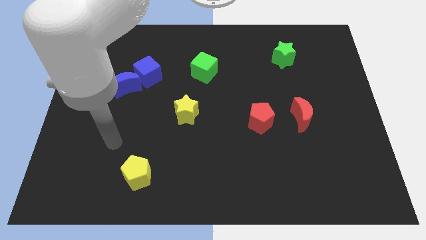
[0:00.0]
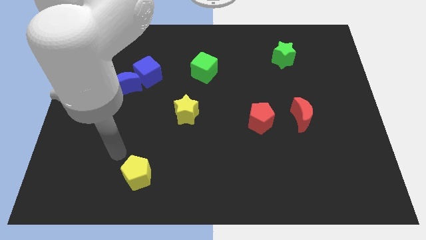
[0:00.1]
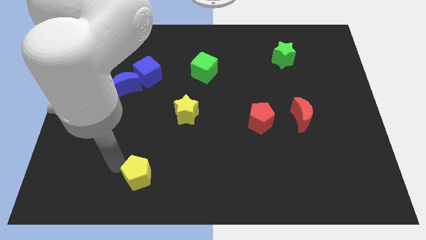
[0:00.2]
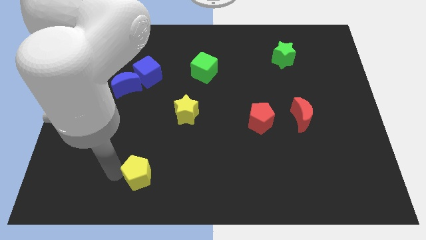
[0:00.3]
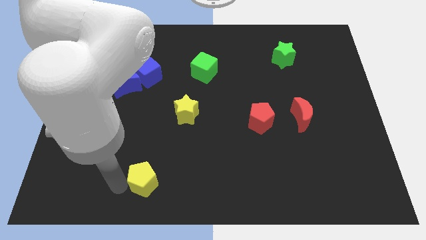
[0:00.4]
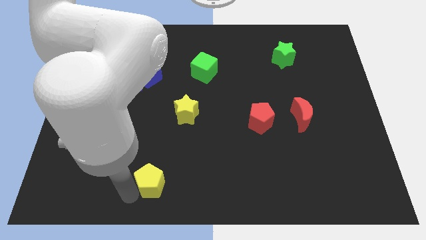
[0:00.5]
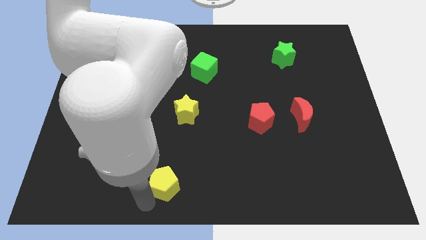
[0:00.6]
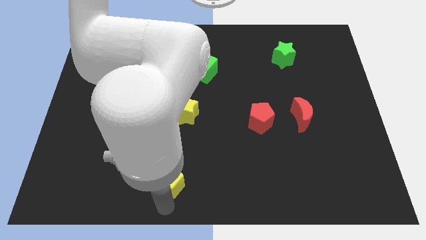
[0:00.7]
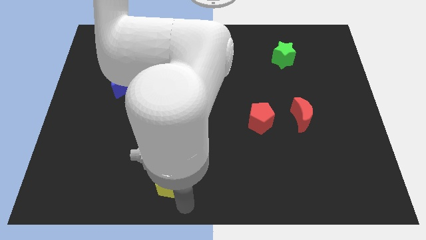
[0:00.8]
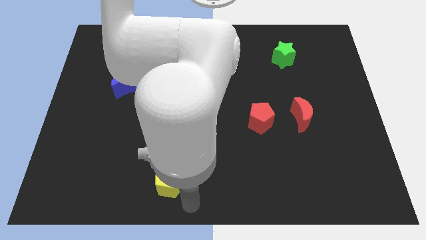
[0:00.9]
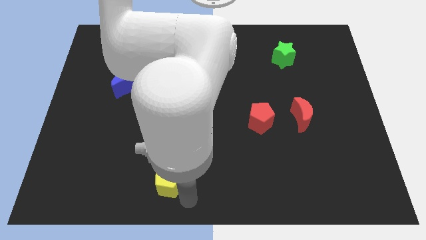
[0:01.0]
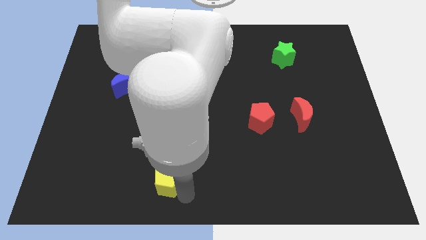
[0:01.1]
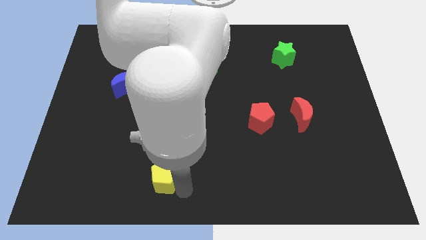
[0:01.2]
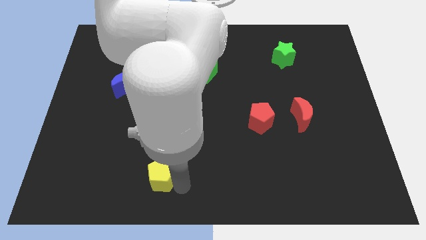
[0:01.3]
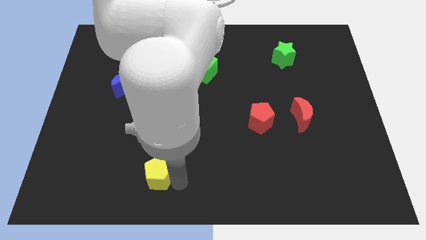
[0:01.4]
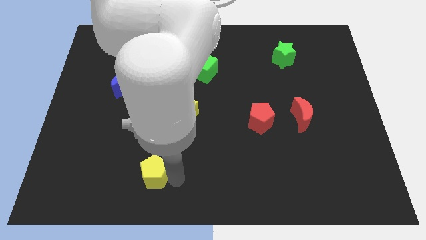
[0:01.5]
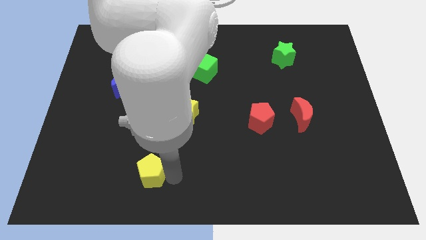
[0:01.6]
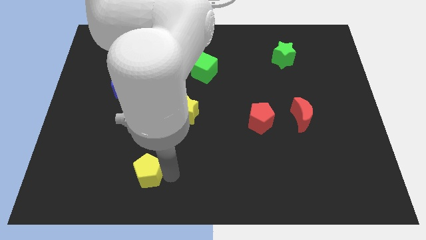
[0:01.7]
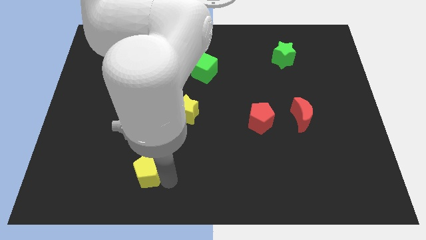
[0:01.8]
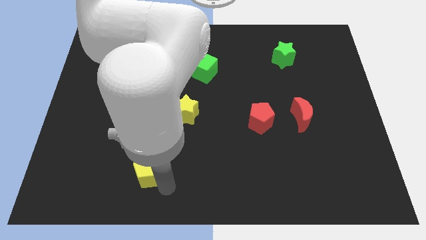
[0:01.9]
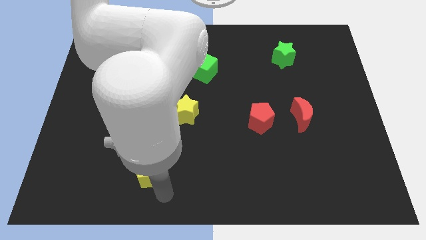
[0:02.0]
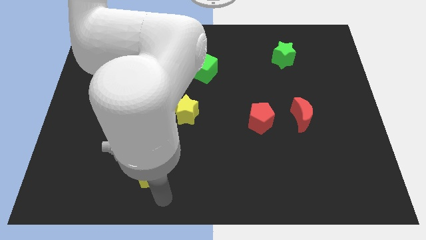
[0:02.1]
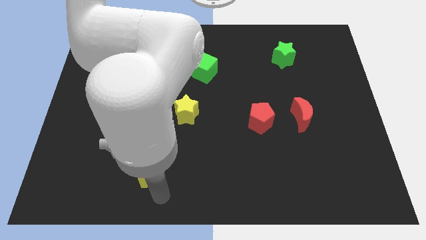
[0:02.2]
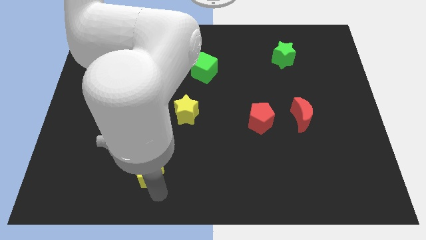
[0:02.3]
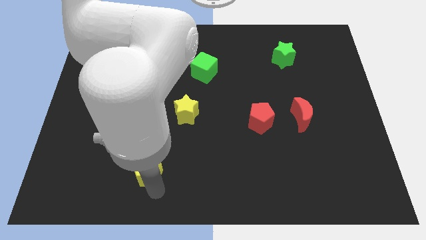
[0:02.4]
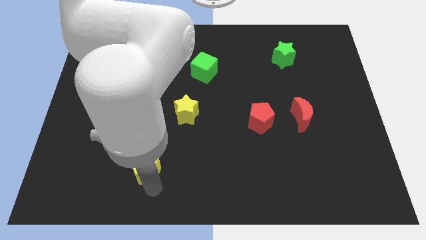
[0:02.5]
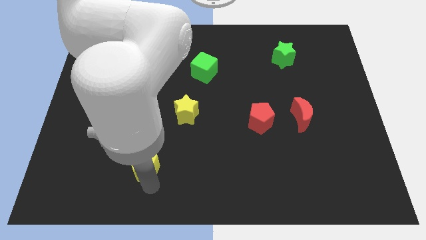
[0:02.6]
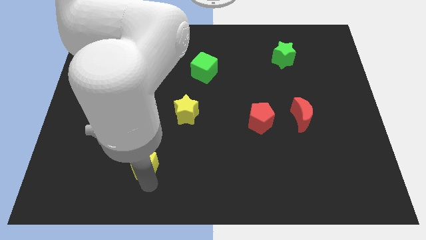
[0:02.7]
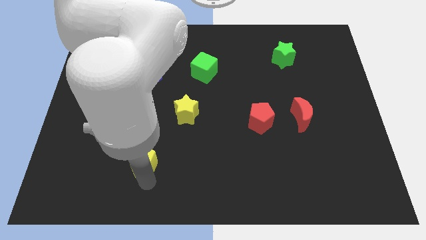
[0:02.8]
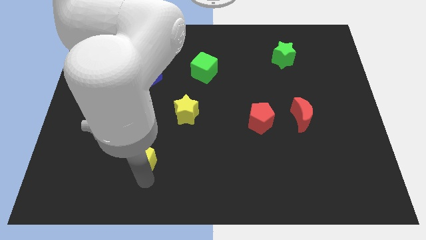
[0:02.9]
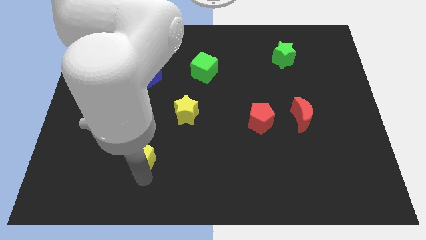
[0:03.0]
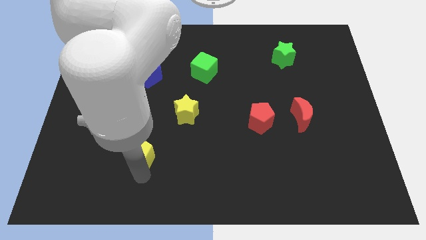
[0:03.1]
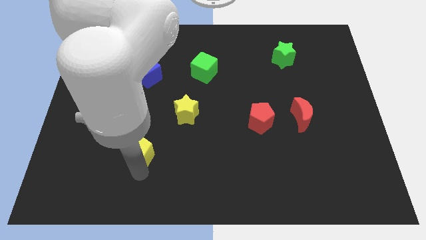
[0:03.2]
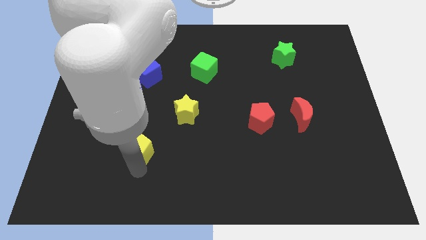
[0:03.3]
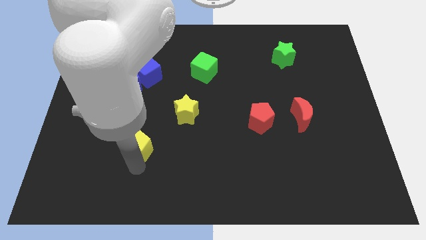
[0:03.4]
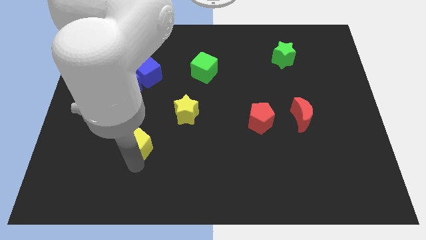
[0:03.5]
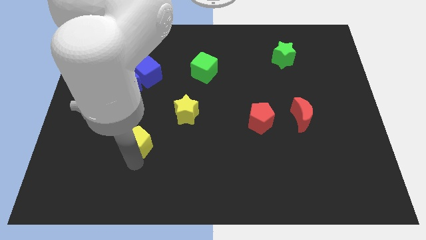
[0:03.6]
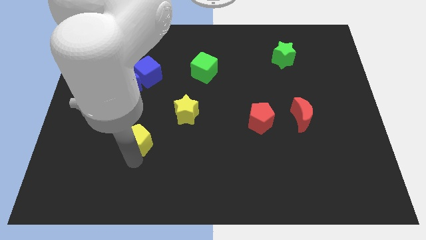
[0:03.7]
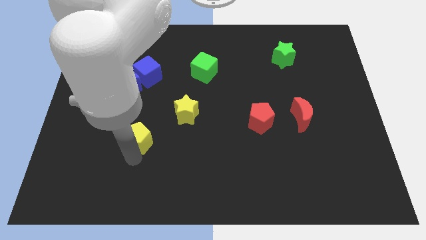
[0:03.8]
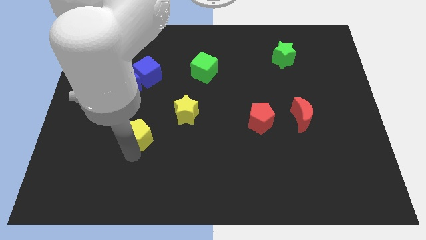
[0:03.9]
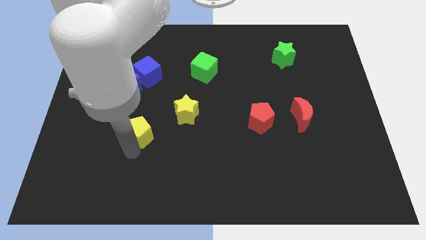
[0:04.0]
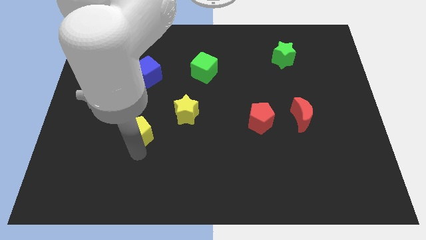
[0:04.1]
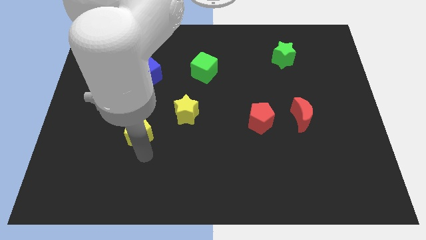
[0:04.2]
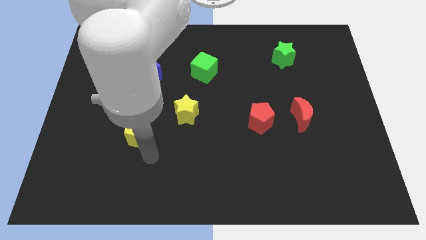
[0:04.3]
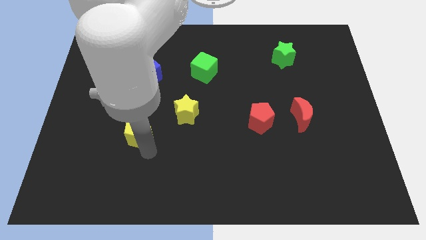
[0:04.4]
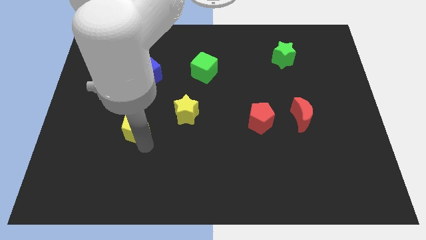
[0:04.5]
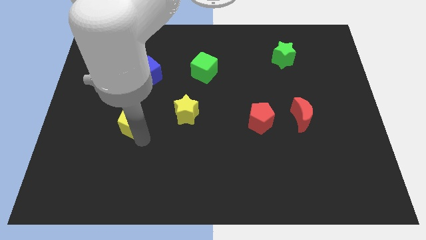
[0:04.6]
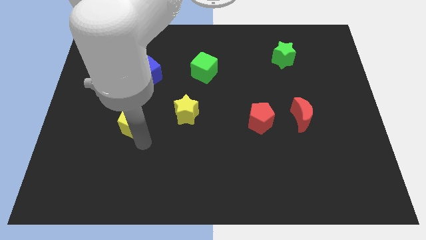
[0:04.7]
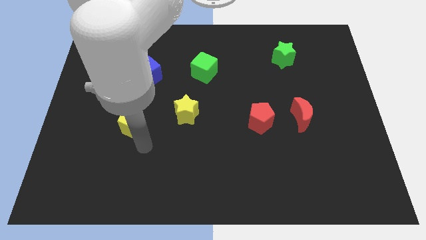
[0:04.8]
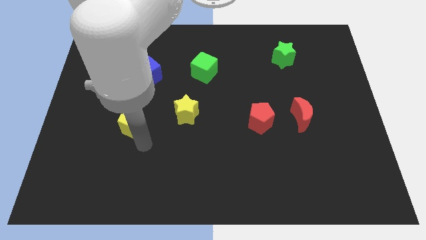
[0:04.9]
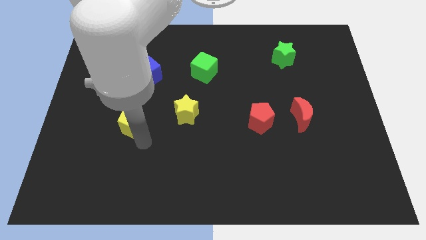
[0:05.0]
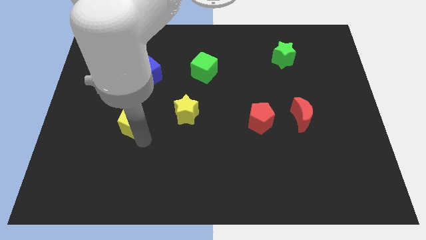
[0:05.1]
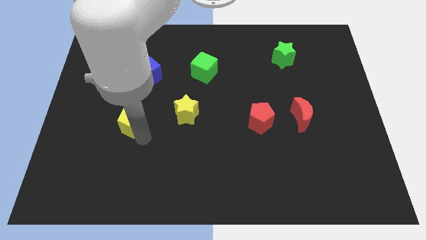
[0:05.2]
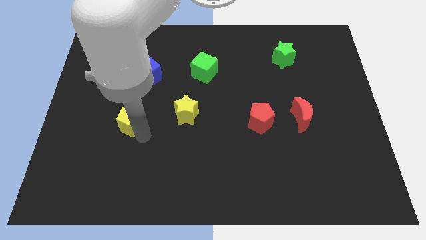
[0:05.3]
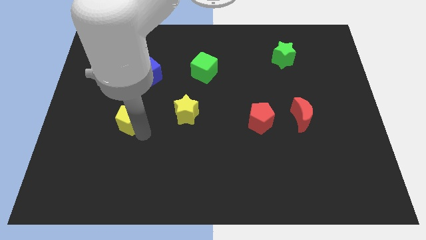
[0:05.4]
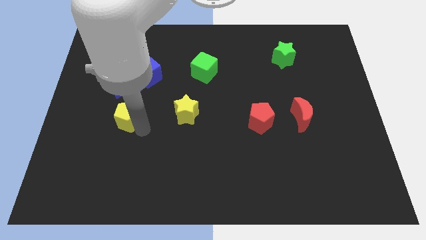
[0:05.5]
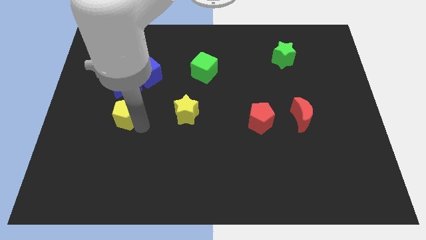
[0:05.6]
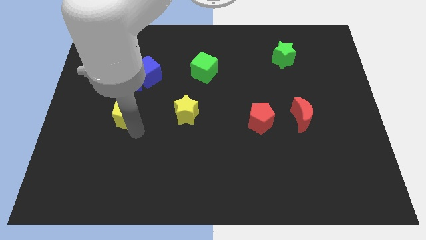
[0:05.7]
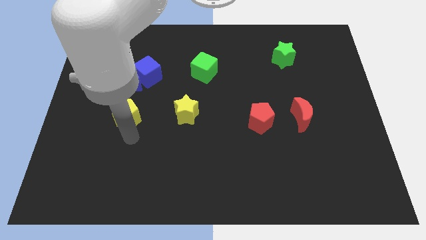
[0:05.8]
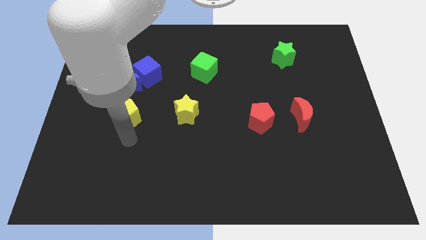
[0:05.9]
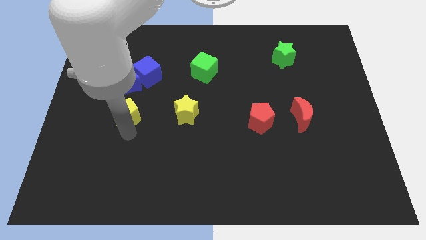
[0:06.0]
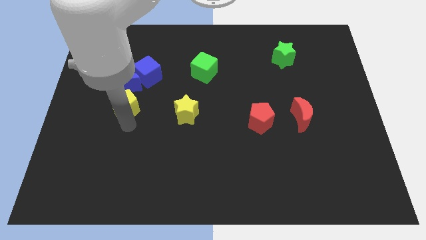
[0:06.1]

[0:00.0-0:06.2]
move the yellow pentagon to the blue moon

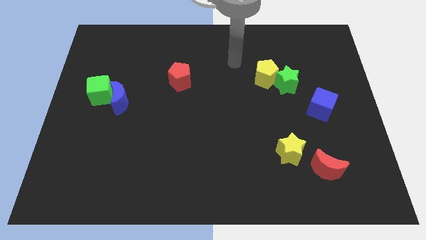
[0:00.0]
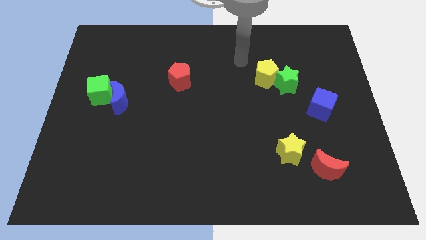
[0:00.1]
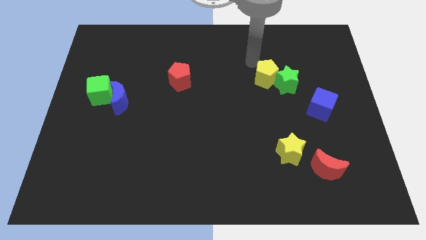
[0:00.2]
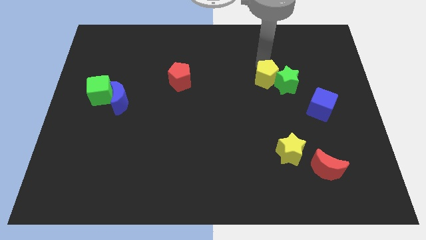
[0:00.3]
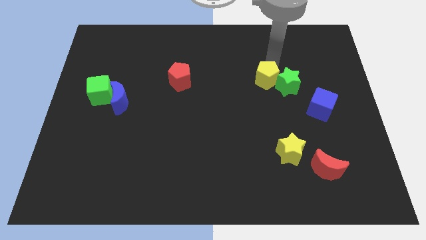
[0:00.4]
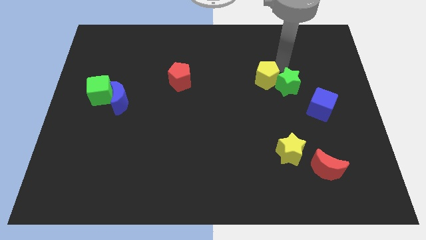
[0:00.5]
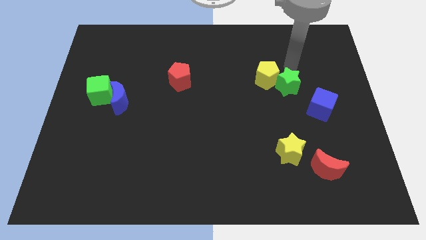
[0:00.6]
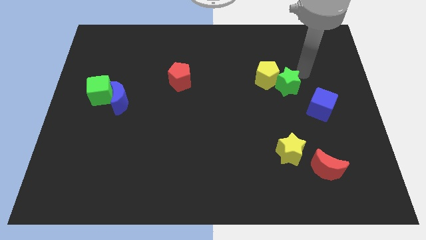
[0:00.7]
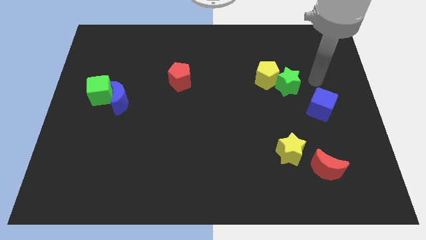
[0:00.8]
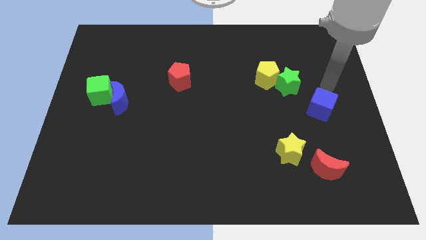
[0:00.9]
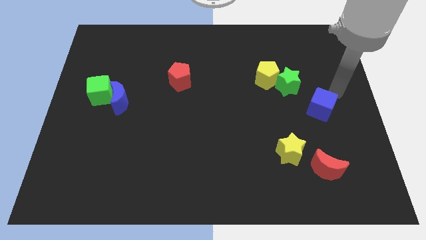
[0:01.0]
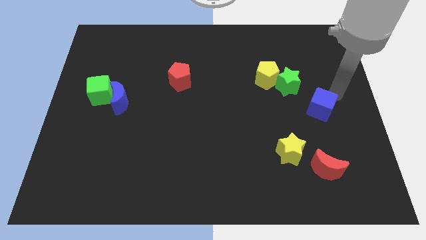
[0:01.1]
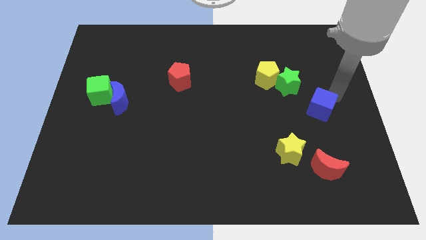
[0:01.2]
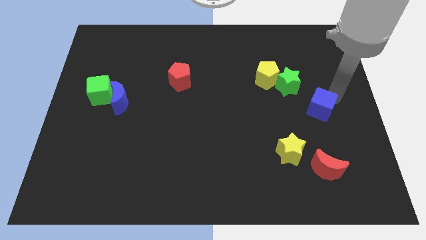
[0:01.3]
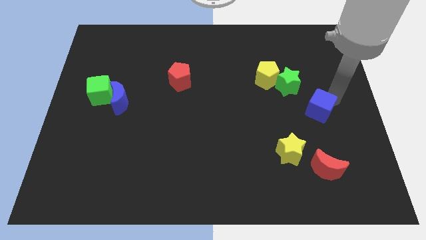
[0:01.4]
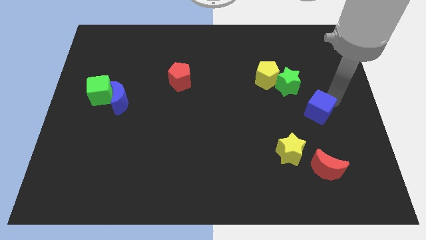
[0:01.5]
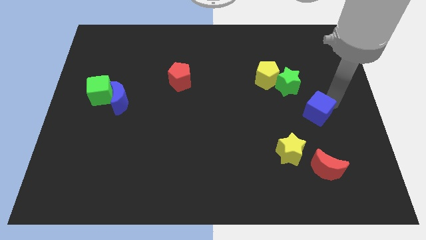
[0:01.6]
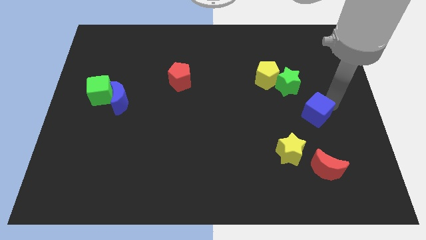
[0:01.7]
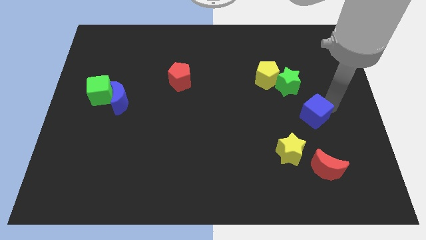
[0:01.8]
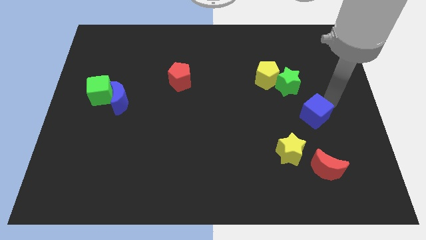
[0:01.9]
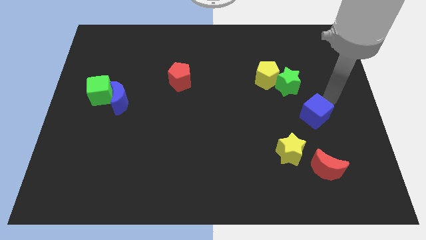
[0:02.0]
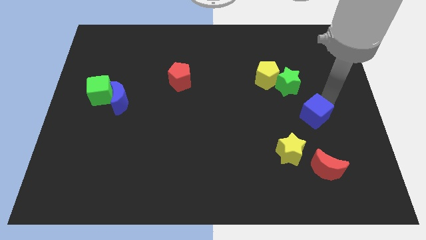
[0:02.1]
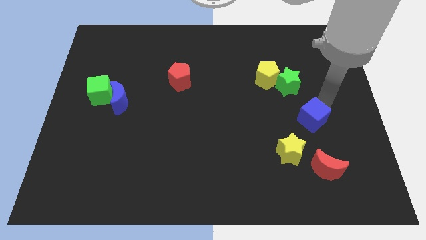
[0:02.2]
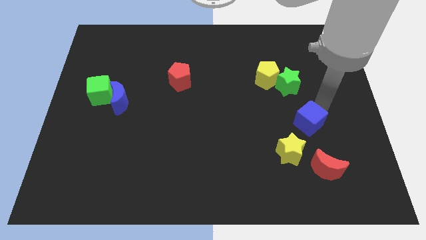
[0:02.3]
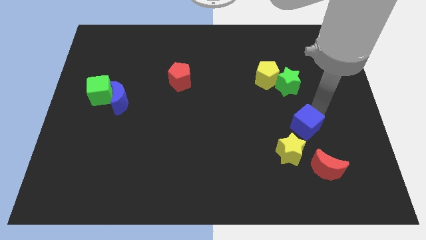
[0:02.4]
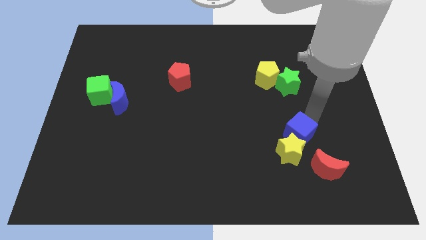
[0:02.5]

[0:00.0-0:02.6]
put the blue cube towards the yellow star
